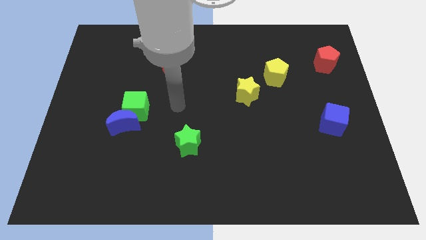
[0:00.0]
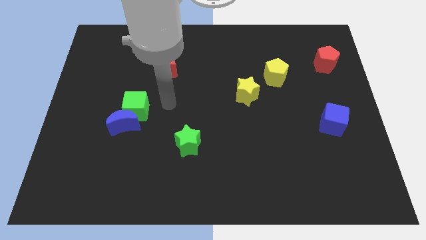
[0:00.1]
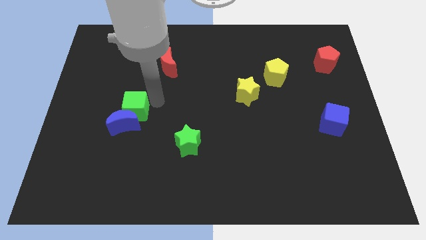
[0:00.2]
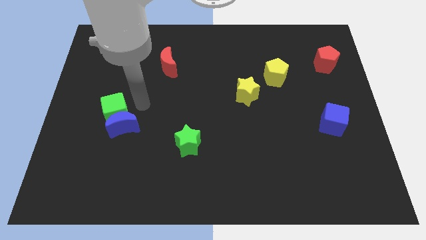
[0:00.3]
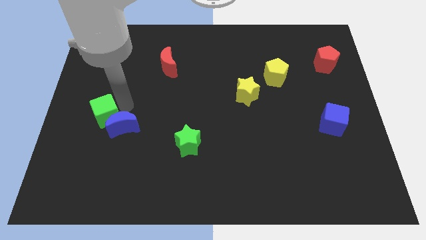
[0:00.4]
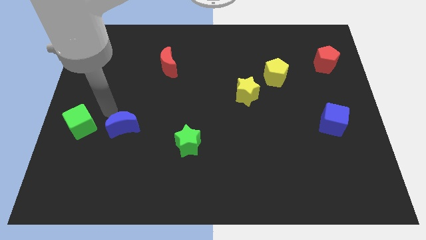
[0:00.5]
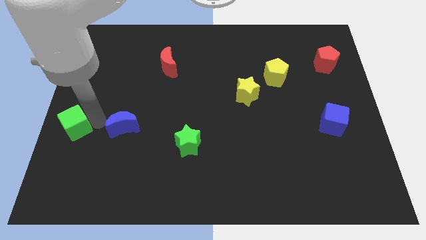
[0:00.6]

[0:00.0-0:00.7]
move the blue moon away from the green cube

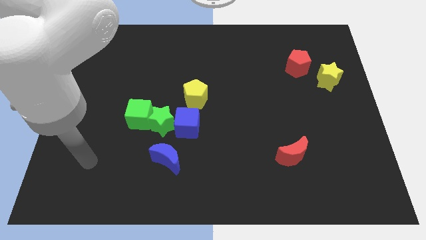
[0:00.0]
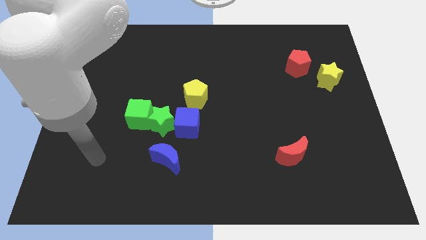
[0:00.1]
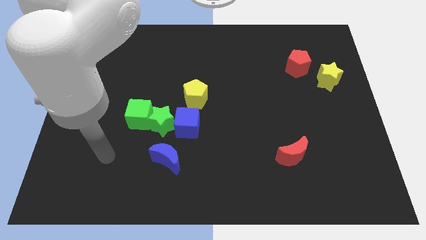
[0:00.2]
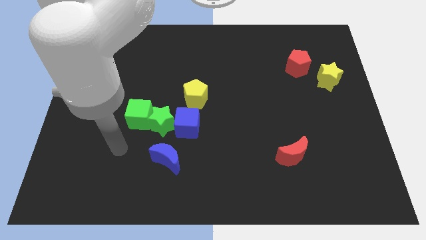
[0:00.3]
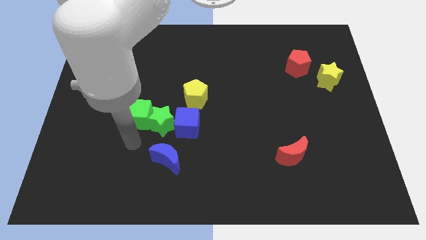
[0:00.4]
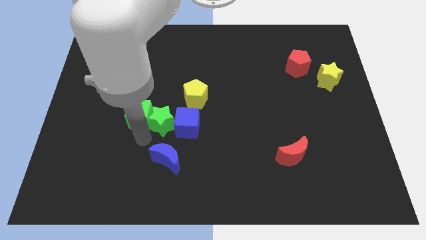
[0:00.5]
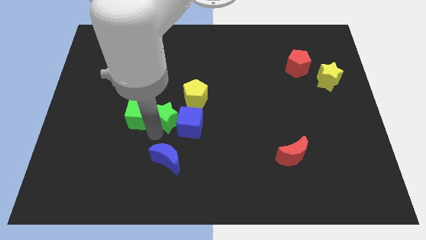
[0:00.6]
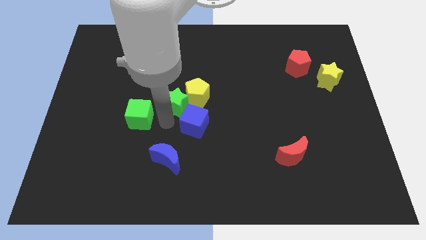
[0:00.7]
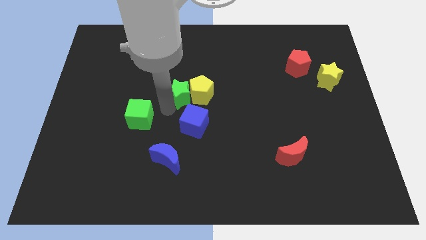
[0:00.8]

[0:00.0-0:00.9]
separate the green cube from the green star

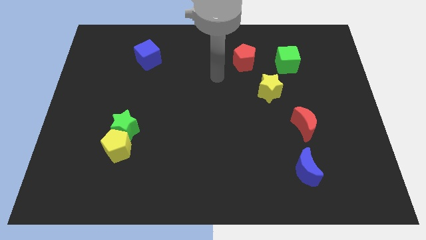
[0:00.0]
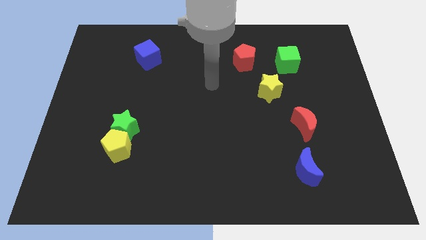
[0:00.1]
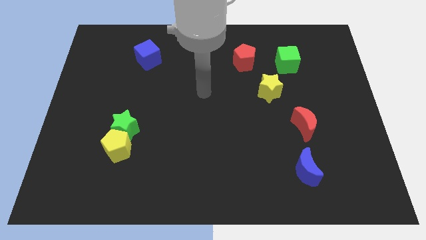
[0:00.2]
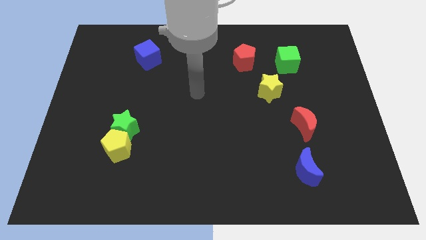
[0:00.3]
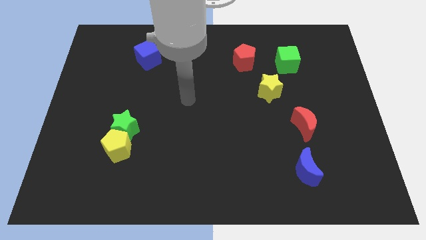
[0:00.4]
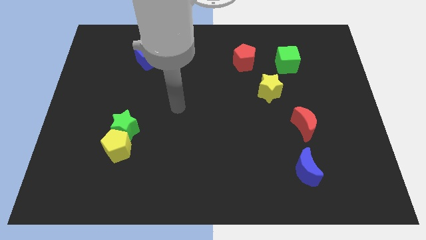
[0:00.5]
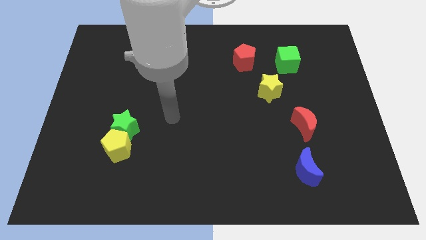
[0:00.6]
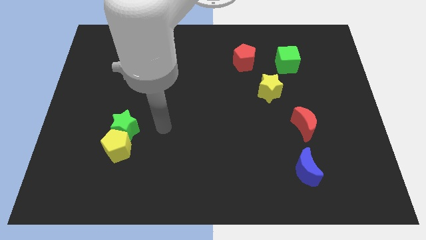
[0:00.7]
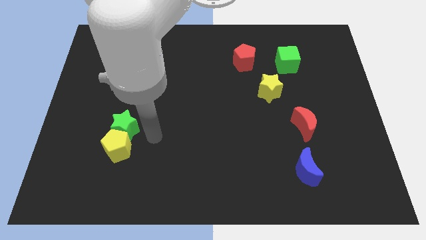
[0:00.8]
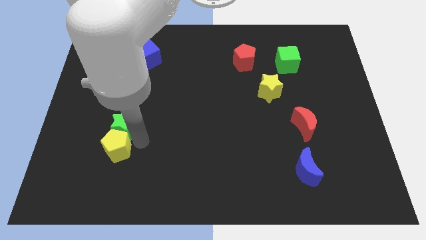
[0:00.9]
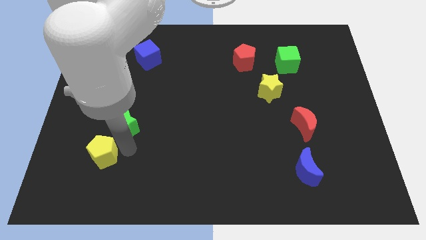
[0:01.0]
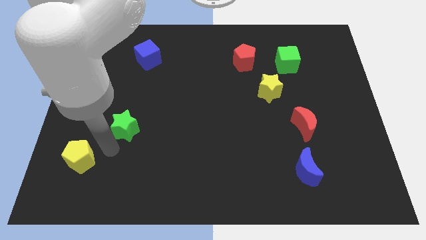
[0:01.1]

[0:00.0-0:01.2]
pull the green star apart from the yellow pentagon

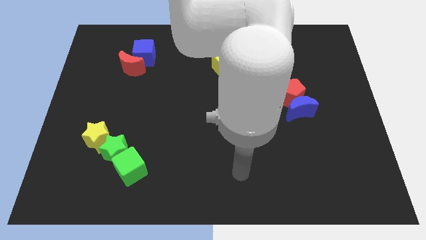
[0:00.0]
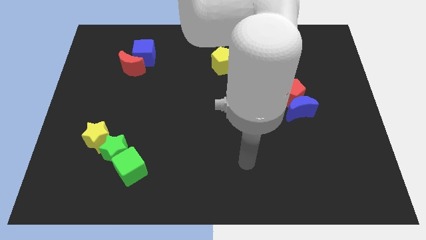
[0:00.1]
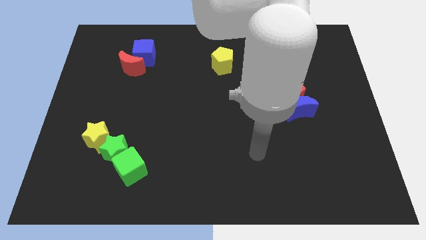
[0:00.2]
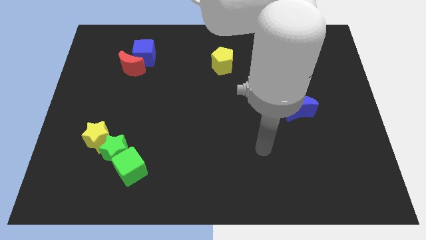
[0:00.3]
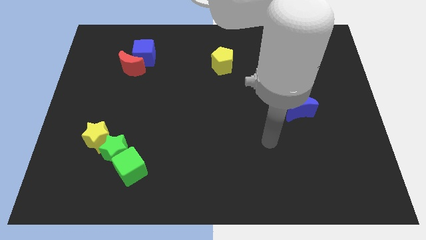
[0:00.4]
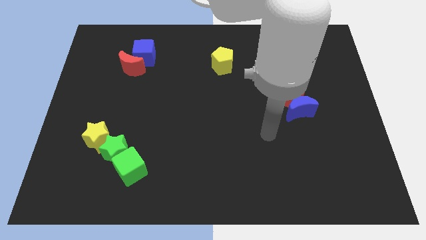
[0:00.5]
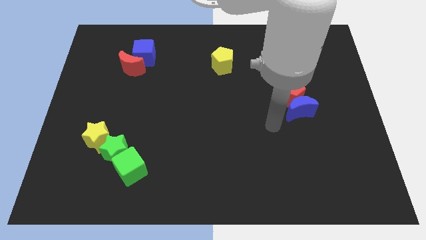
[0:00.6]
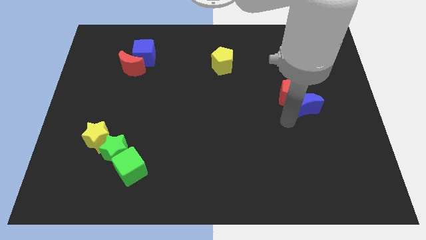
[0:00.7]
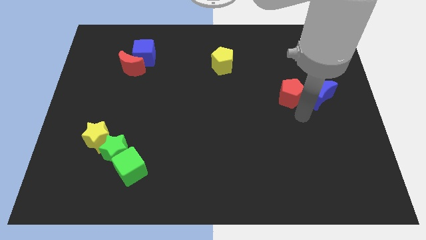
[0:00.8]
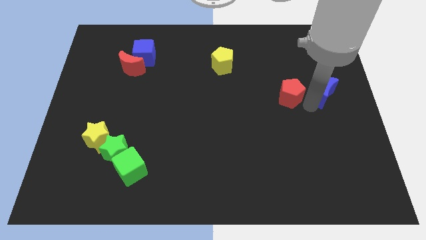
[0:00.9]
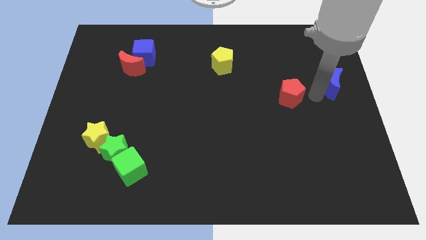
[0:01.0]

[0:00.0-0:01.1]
move the red pentagon away from the blue moon

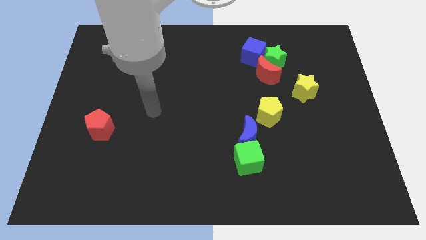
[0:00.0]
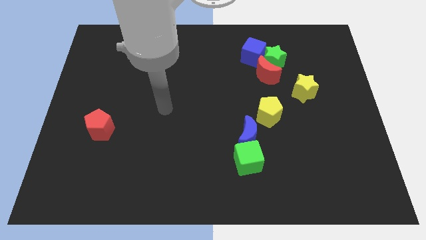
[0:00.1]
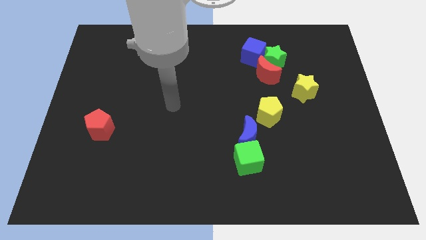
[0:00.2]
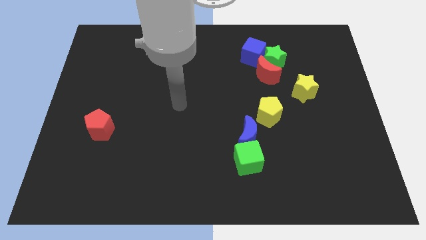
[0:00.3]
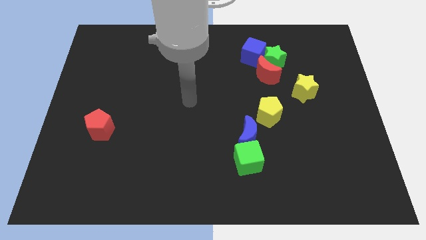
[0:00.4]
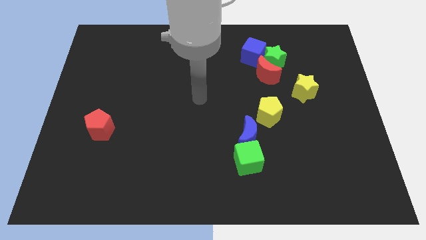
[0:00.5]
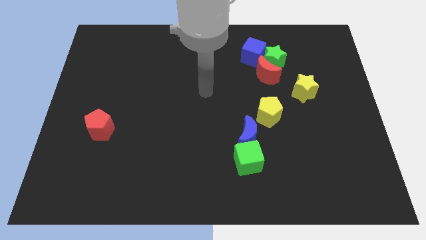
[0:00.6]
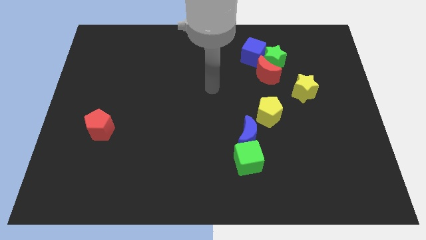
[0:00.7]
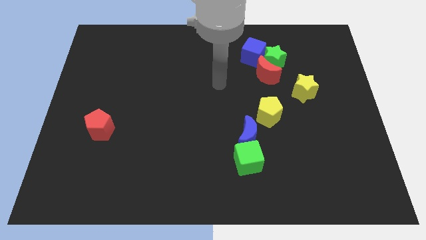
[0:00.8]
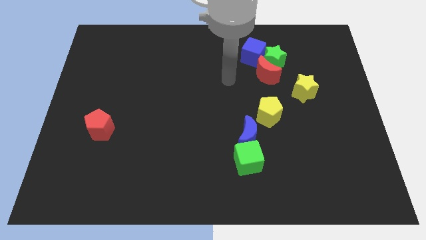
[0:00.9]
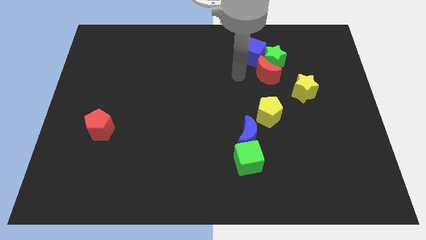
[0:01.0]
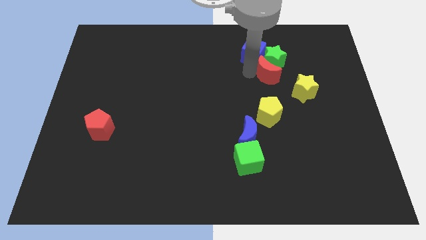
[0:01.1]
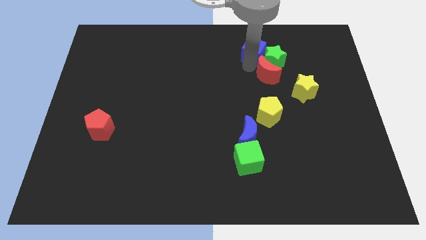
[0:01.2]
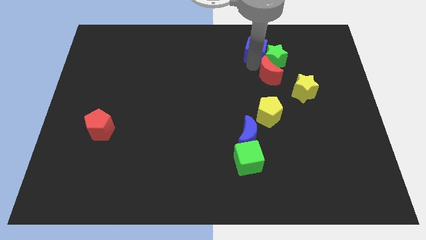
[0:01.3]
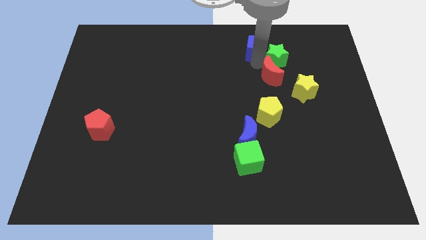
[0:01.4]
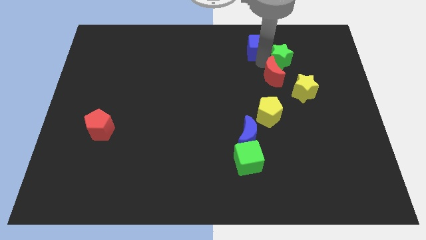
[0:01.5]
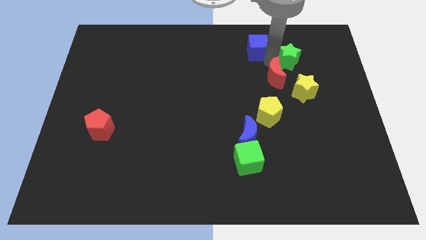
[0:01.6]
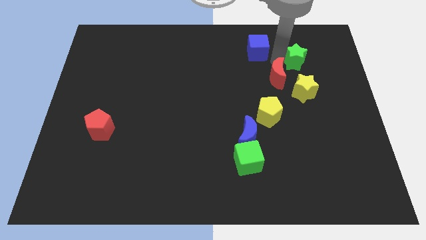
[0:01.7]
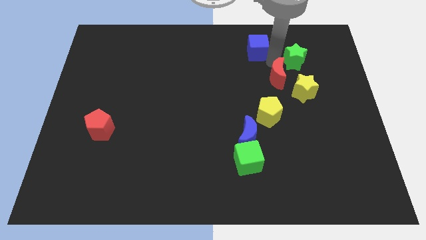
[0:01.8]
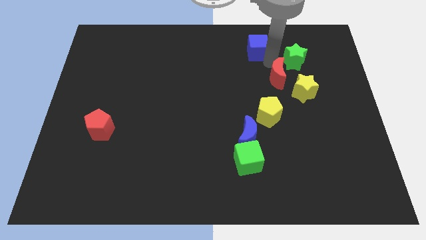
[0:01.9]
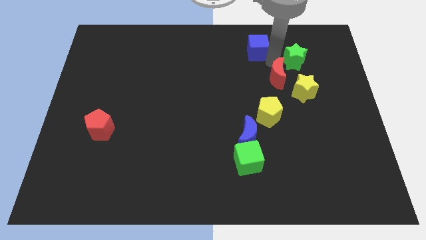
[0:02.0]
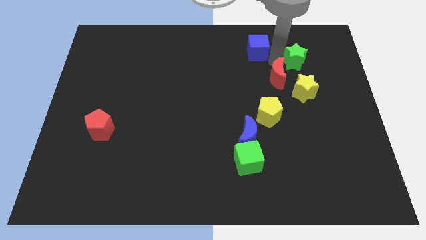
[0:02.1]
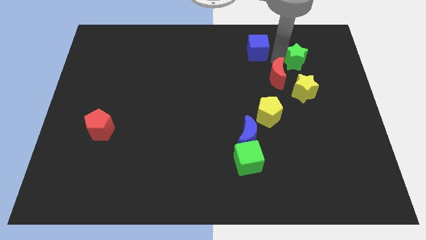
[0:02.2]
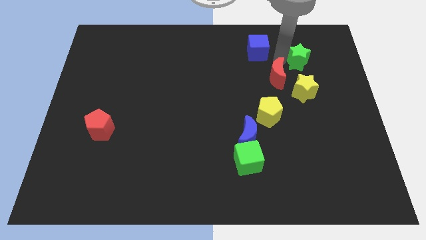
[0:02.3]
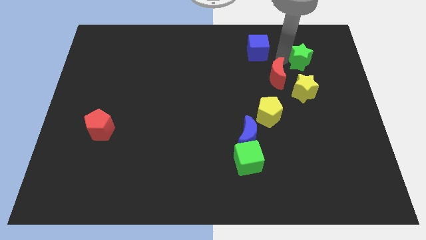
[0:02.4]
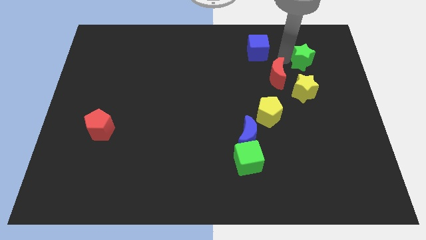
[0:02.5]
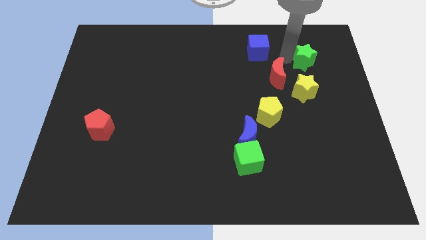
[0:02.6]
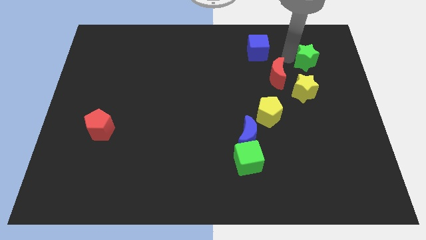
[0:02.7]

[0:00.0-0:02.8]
pull the green star apart from the red moon and blue cube

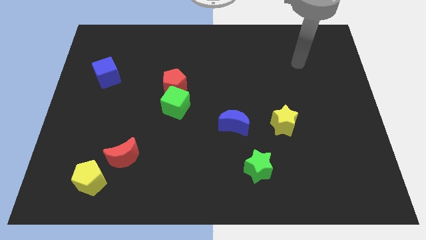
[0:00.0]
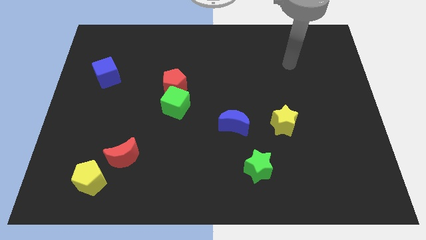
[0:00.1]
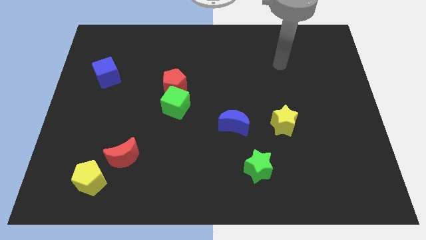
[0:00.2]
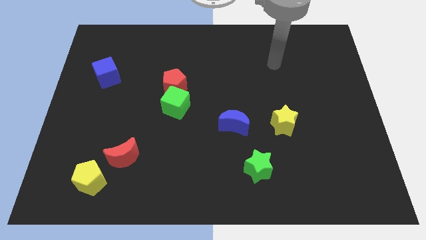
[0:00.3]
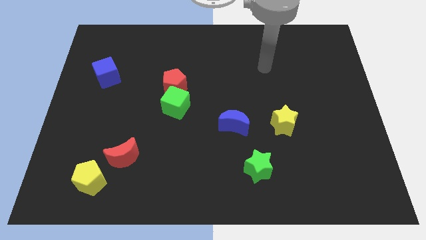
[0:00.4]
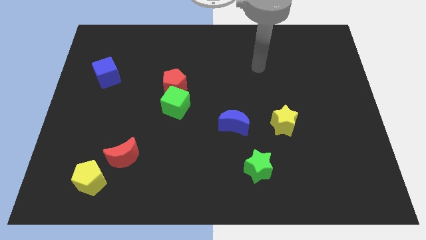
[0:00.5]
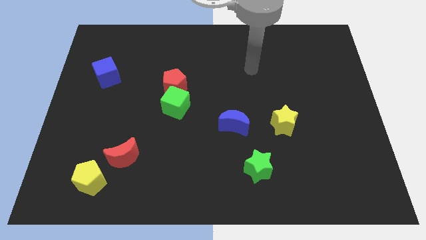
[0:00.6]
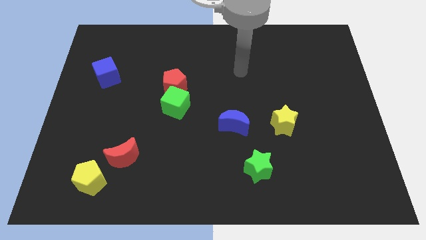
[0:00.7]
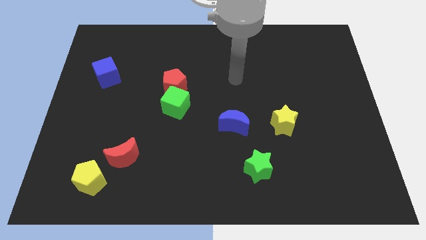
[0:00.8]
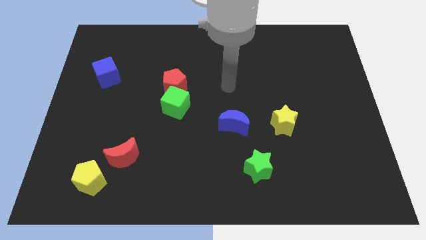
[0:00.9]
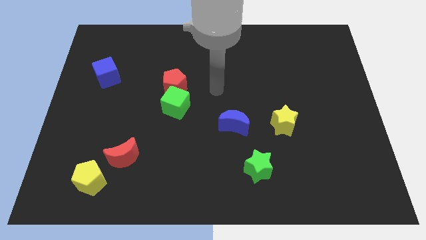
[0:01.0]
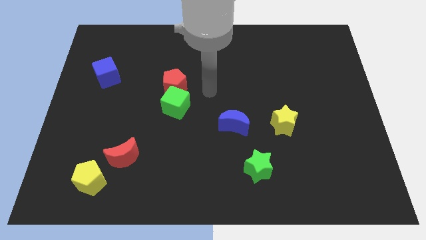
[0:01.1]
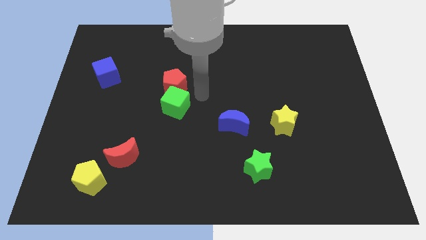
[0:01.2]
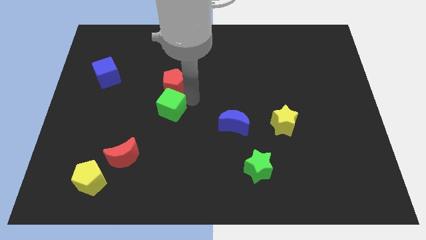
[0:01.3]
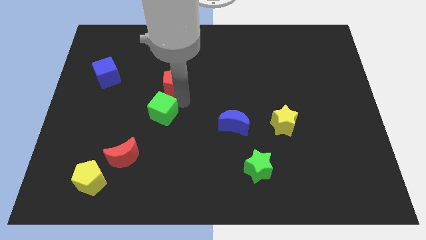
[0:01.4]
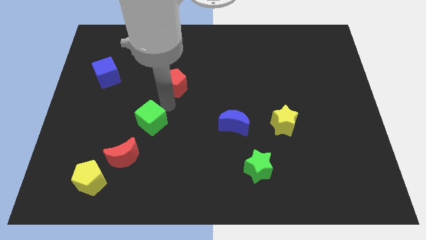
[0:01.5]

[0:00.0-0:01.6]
pull the red pentagon apart from the green cube

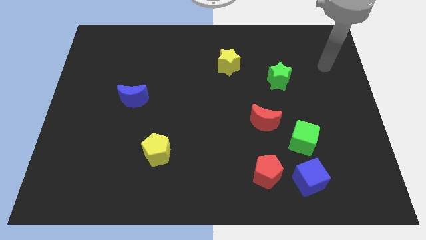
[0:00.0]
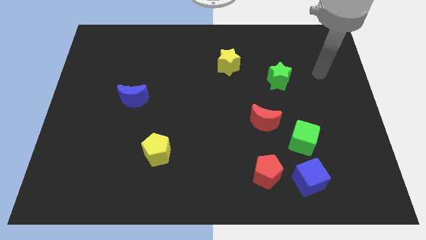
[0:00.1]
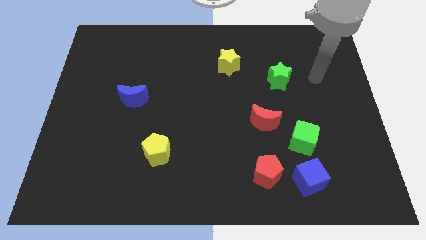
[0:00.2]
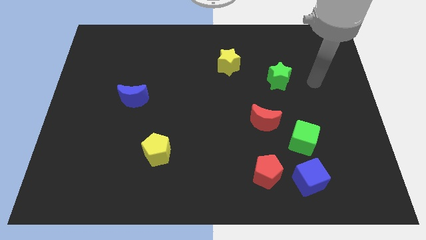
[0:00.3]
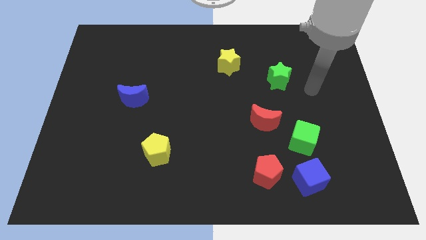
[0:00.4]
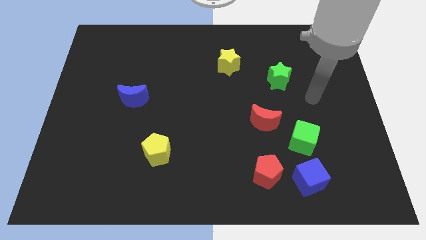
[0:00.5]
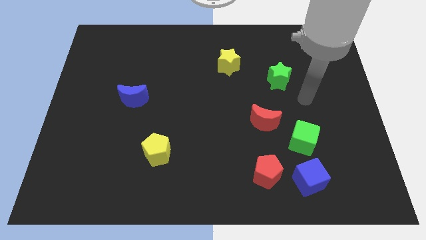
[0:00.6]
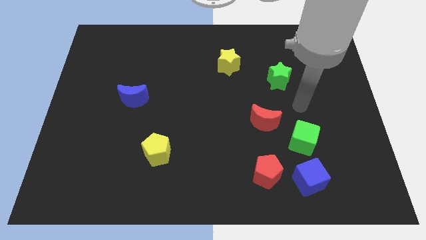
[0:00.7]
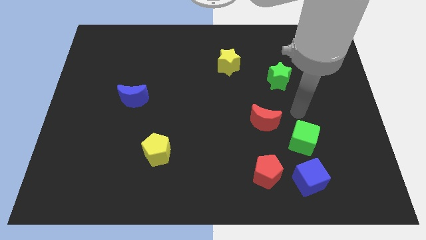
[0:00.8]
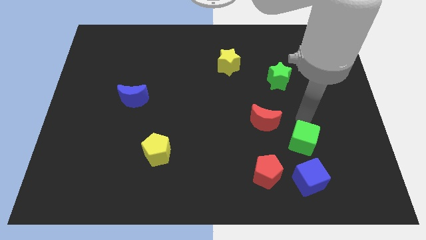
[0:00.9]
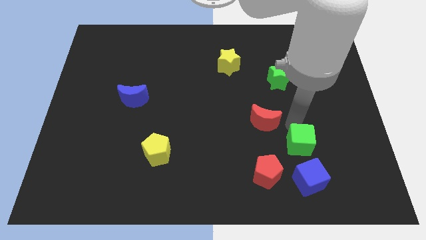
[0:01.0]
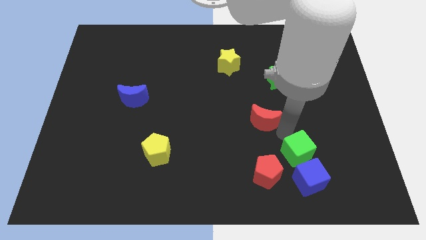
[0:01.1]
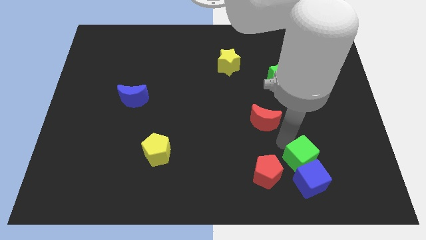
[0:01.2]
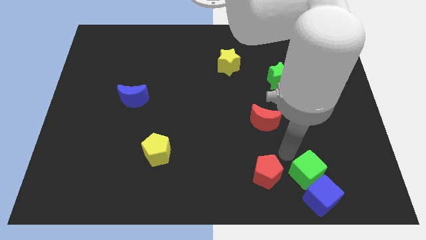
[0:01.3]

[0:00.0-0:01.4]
move the red pentagon away from the blue cube
